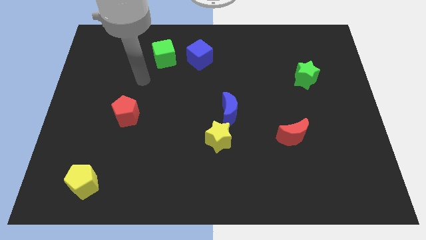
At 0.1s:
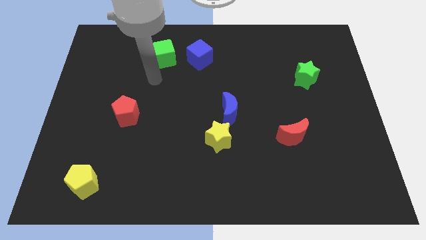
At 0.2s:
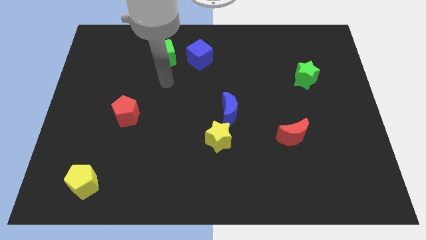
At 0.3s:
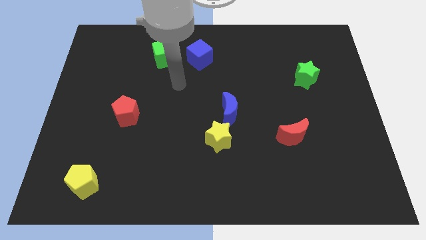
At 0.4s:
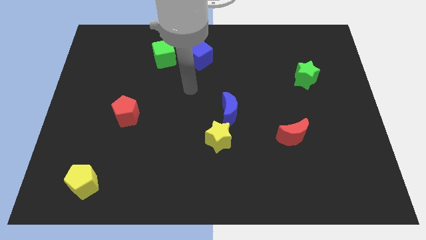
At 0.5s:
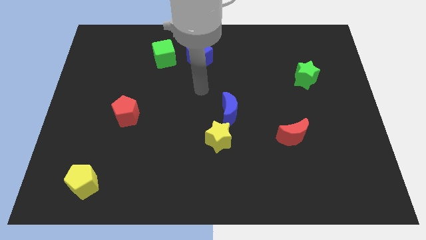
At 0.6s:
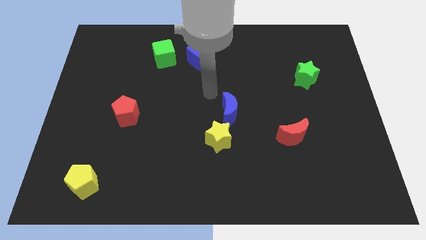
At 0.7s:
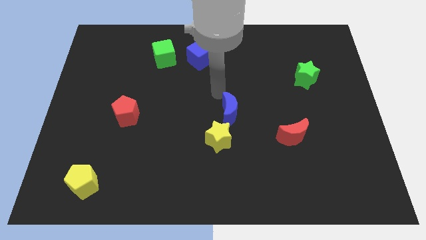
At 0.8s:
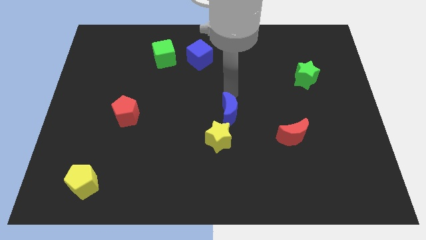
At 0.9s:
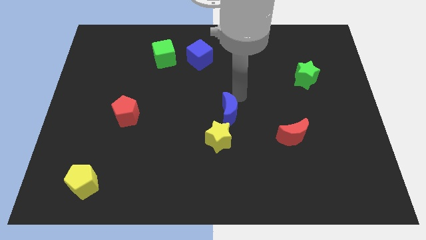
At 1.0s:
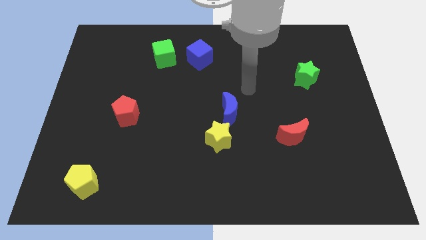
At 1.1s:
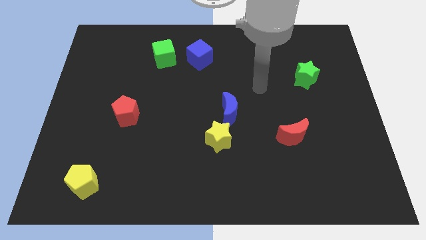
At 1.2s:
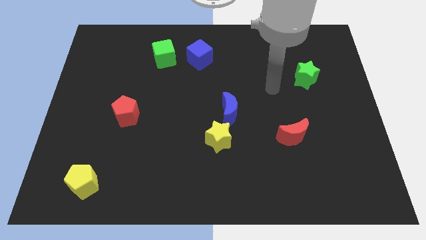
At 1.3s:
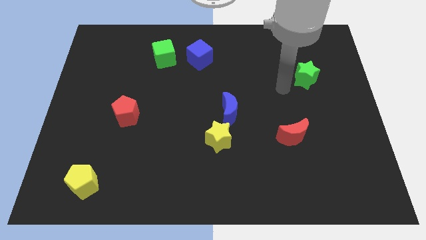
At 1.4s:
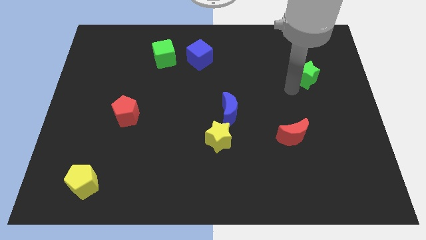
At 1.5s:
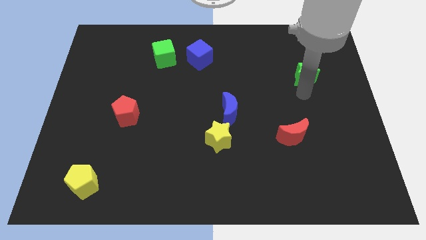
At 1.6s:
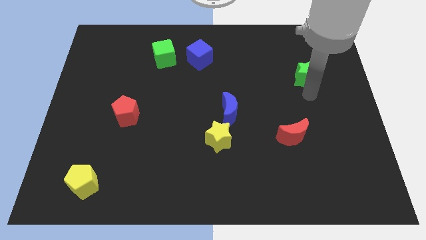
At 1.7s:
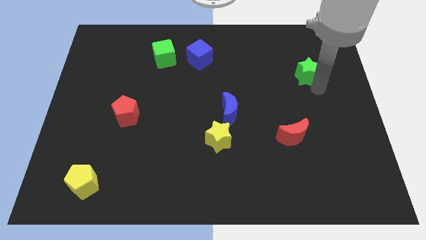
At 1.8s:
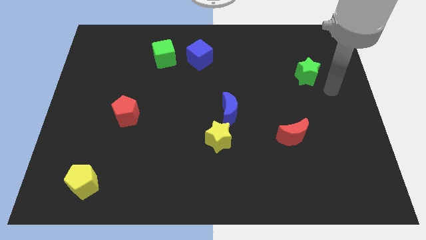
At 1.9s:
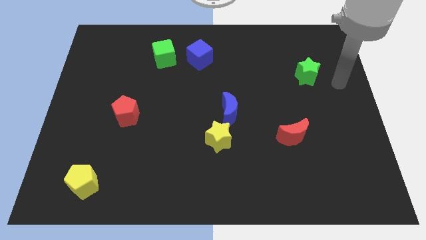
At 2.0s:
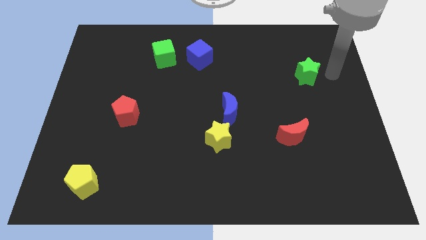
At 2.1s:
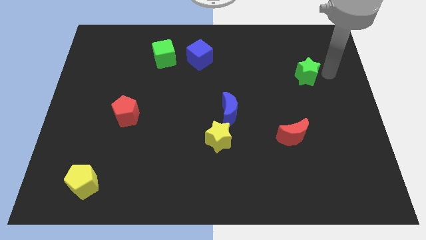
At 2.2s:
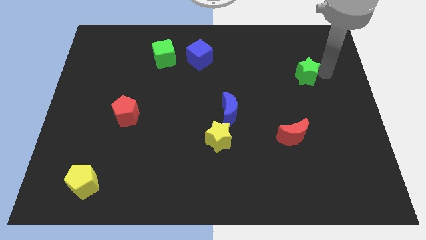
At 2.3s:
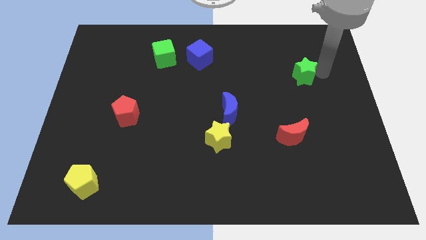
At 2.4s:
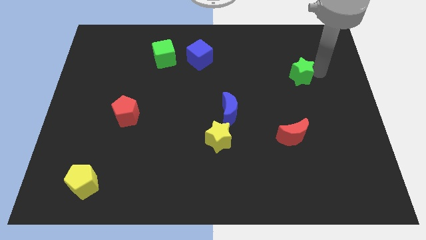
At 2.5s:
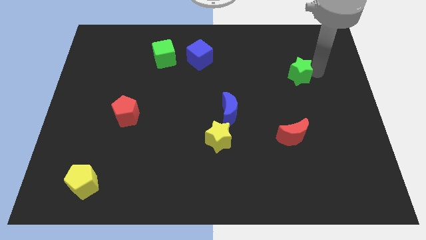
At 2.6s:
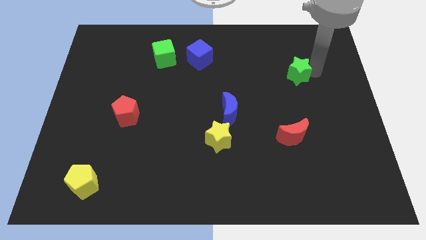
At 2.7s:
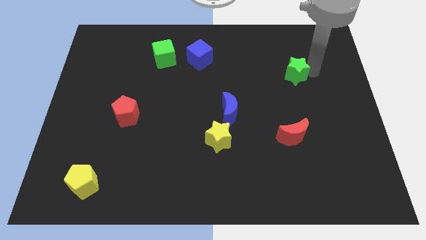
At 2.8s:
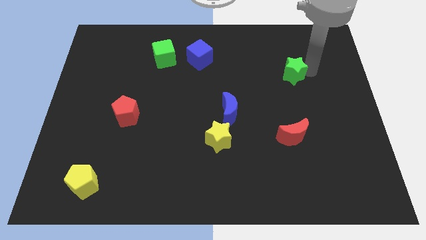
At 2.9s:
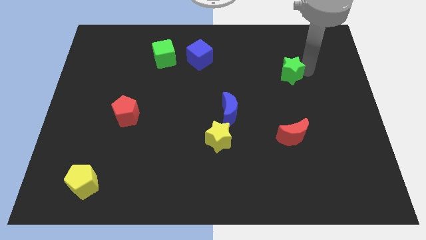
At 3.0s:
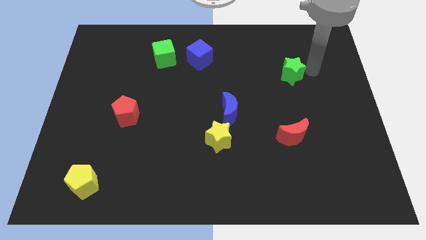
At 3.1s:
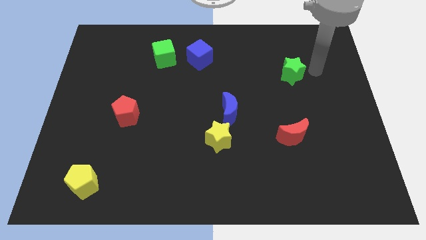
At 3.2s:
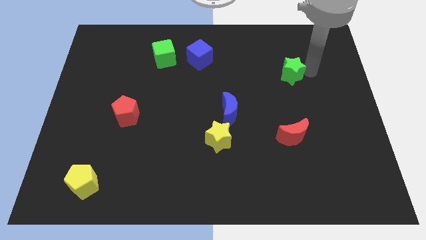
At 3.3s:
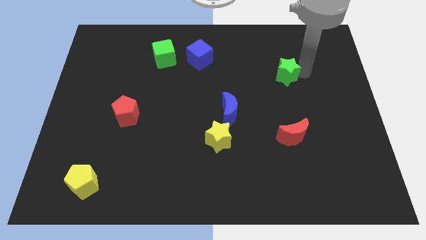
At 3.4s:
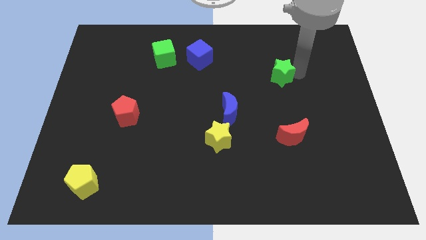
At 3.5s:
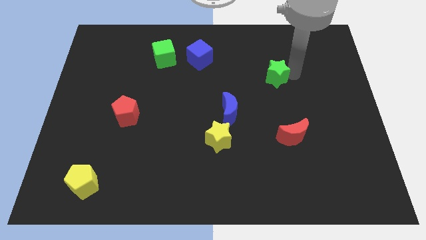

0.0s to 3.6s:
slightly move the green star to the left

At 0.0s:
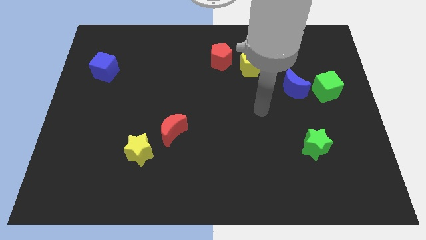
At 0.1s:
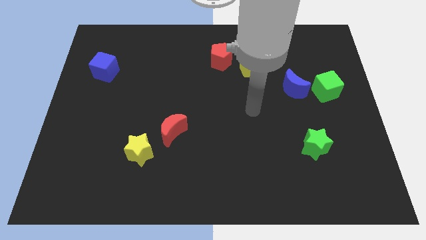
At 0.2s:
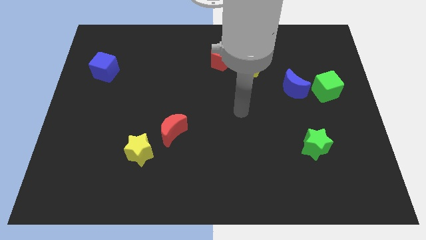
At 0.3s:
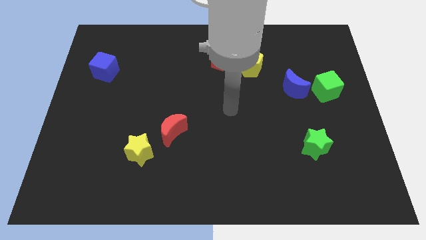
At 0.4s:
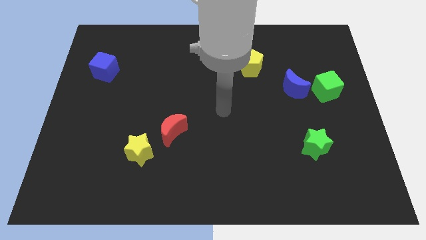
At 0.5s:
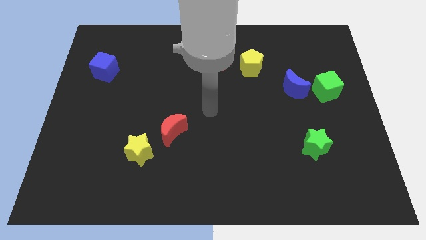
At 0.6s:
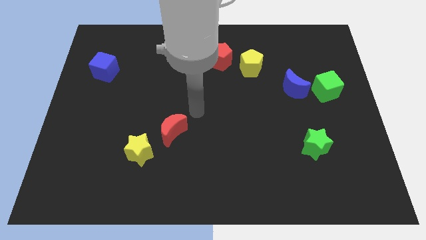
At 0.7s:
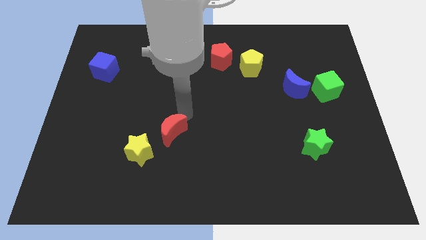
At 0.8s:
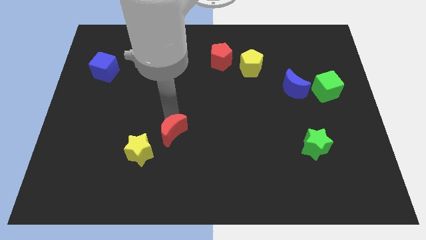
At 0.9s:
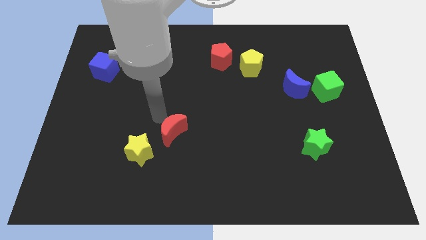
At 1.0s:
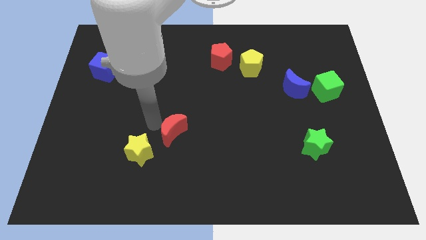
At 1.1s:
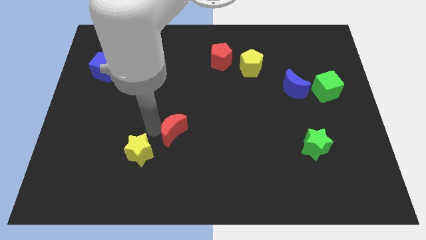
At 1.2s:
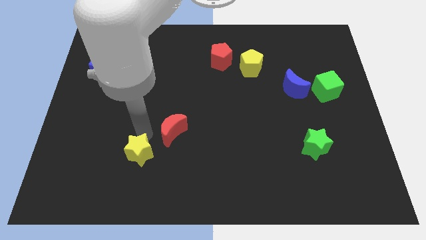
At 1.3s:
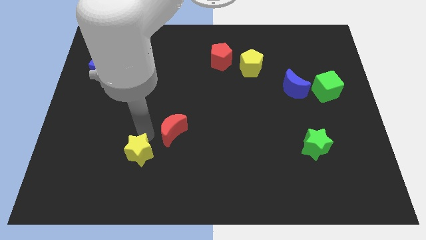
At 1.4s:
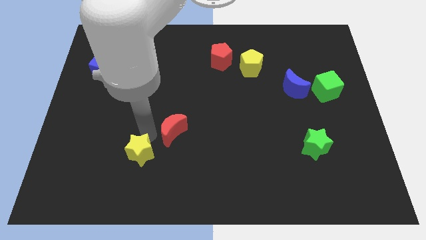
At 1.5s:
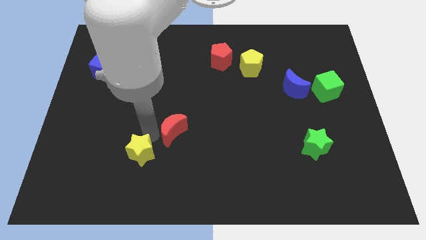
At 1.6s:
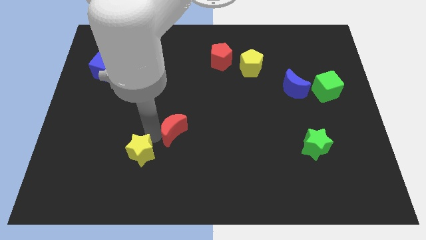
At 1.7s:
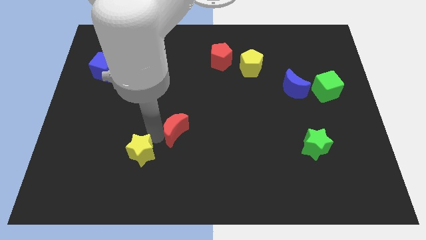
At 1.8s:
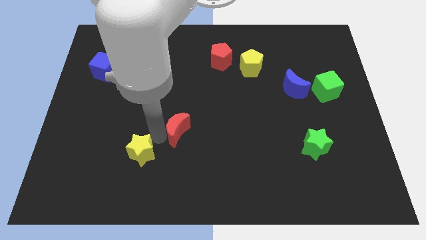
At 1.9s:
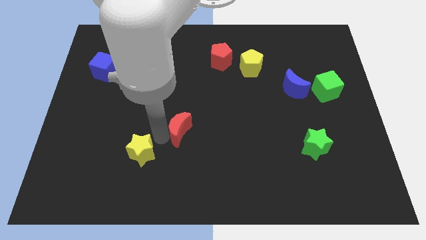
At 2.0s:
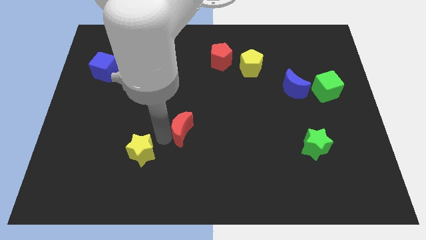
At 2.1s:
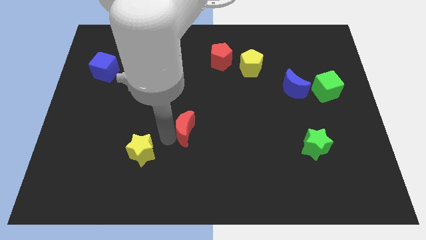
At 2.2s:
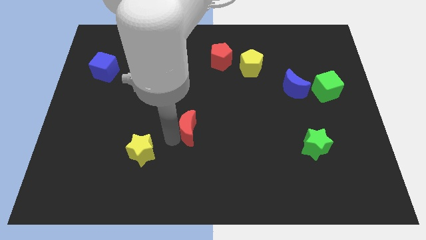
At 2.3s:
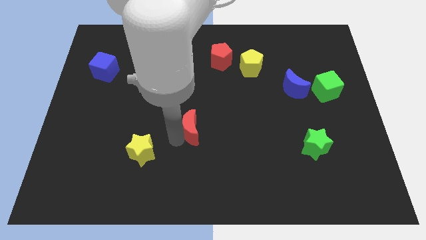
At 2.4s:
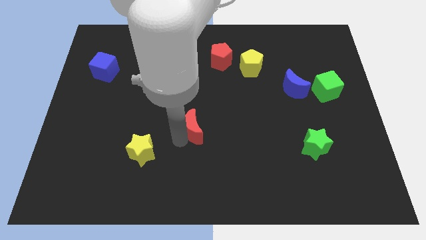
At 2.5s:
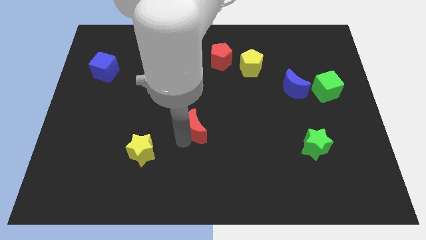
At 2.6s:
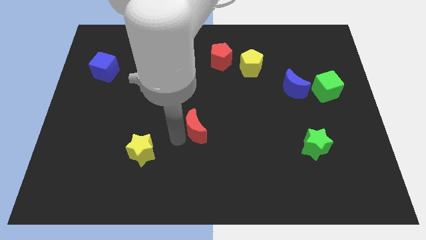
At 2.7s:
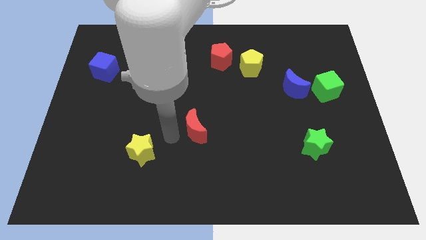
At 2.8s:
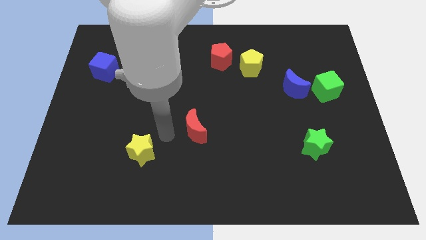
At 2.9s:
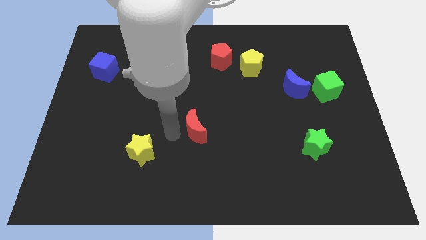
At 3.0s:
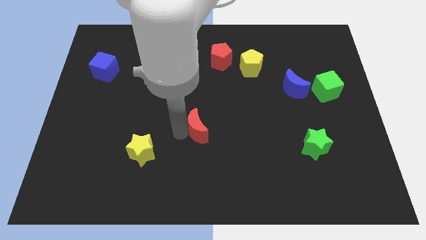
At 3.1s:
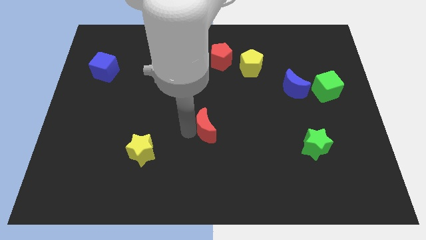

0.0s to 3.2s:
slightly slide the red moon to the right

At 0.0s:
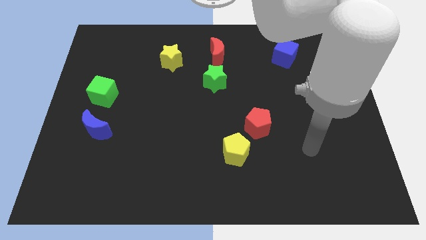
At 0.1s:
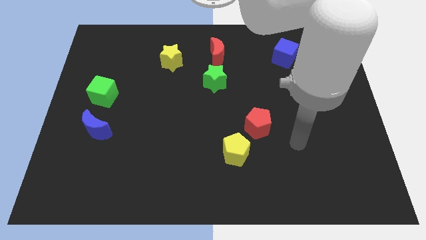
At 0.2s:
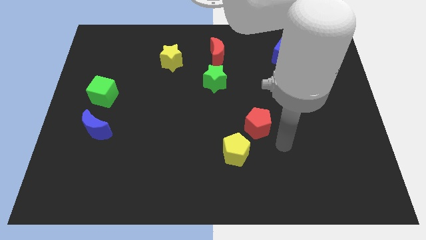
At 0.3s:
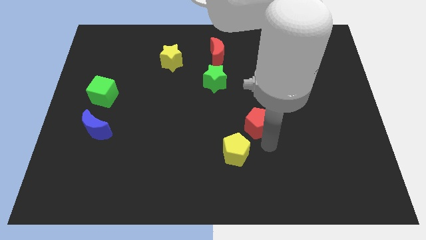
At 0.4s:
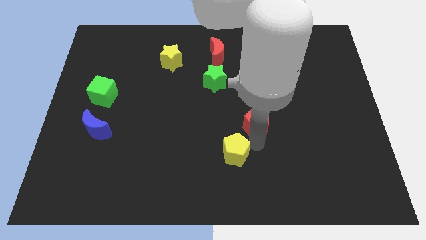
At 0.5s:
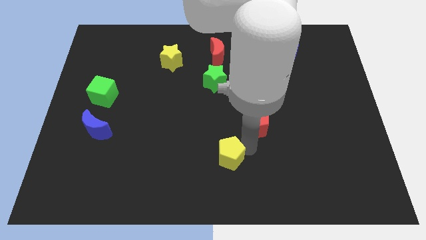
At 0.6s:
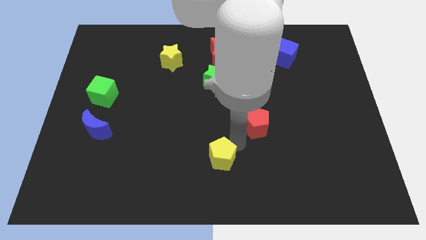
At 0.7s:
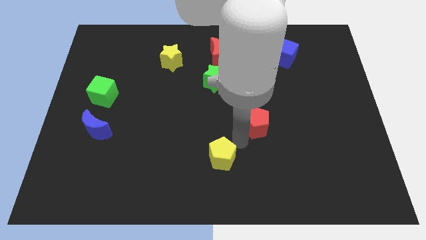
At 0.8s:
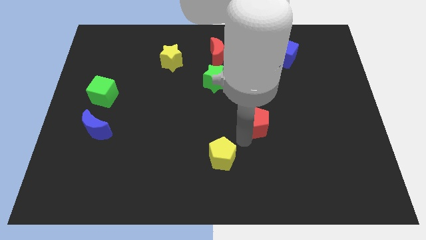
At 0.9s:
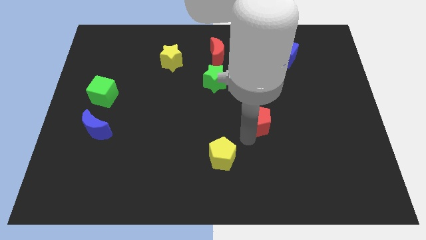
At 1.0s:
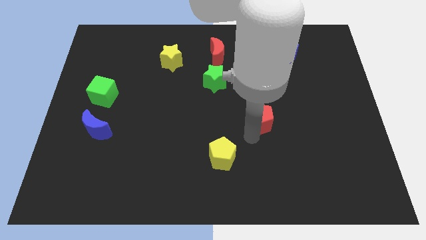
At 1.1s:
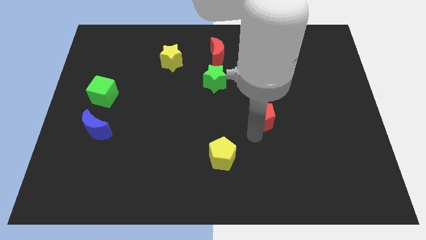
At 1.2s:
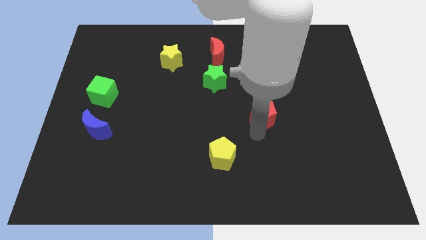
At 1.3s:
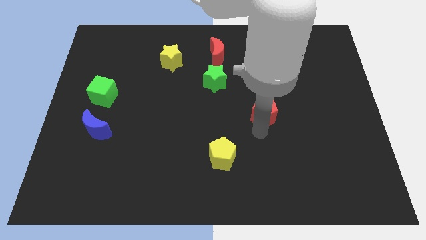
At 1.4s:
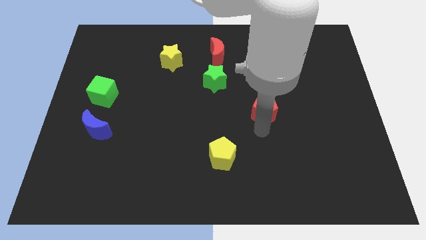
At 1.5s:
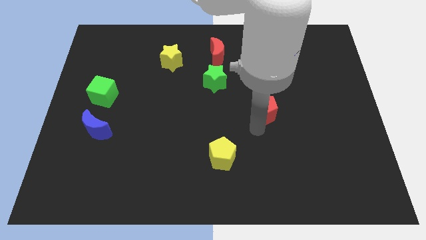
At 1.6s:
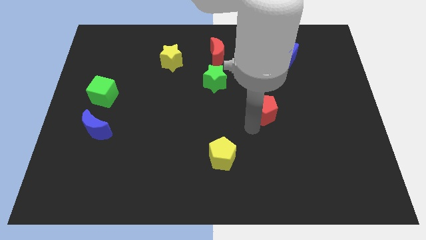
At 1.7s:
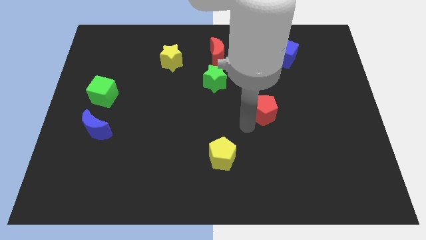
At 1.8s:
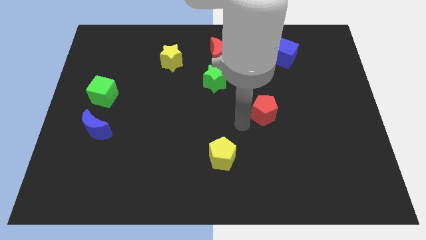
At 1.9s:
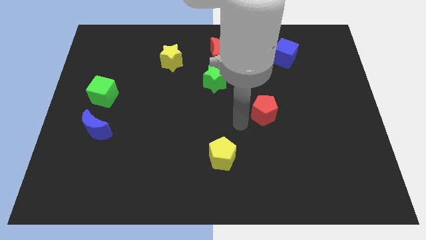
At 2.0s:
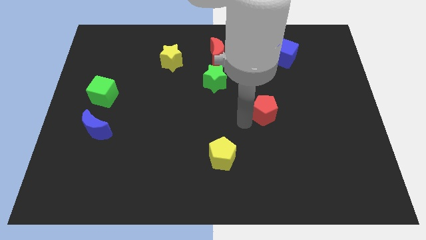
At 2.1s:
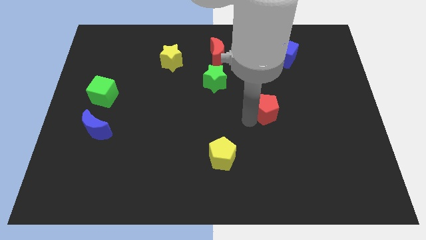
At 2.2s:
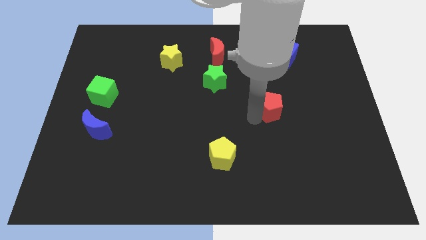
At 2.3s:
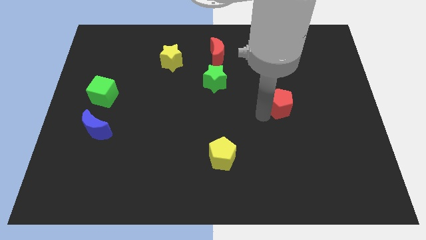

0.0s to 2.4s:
push the red pentagon up and right somewhat
